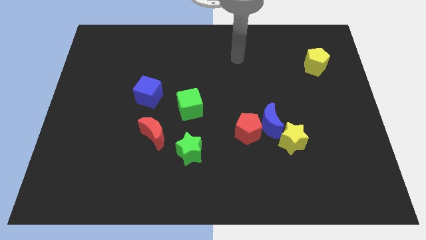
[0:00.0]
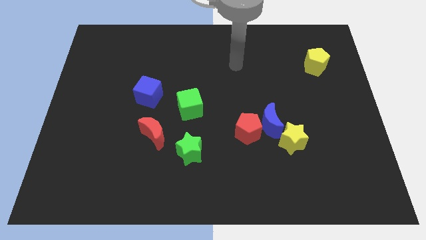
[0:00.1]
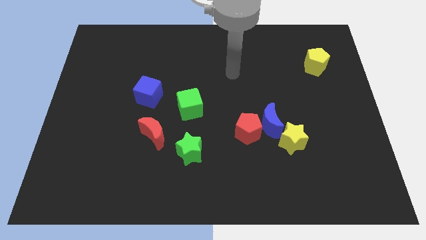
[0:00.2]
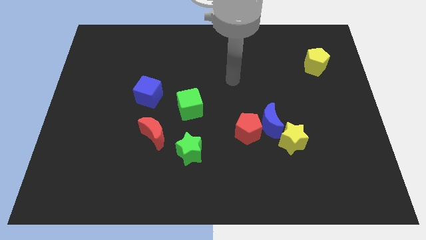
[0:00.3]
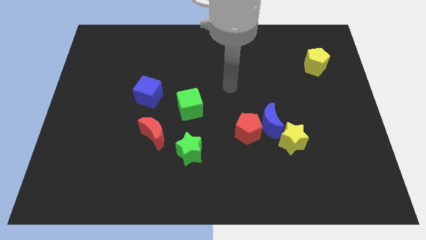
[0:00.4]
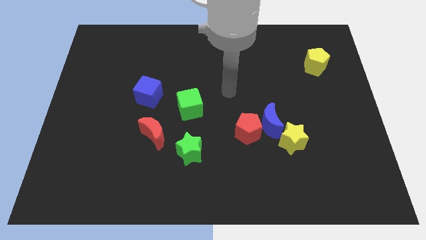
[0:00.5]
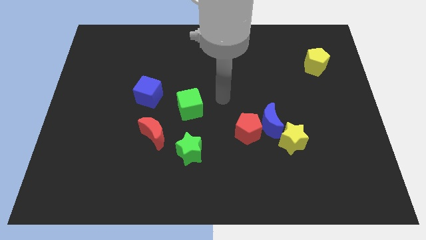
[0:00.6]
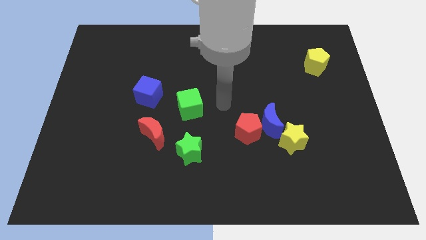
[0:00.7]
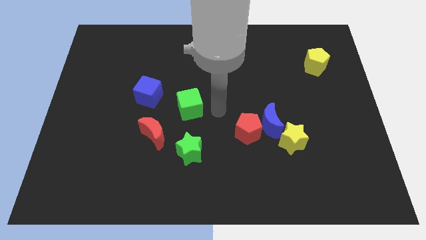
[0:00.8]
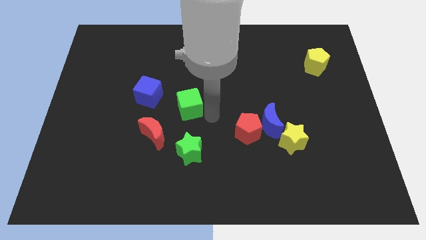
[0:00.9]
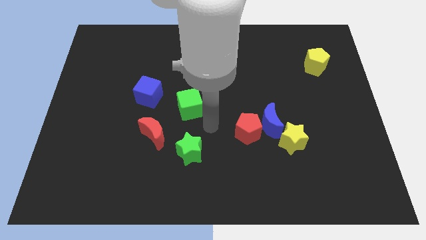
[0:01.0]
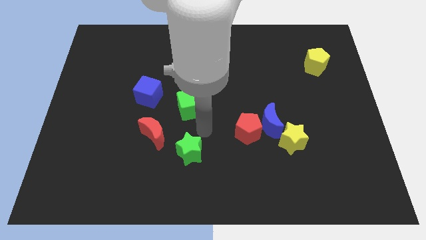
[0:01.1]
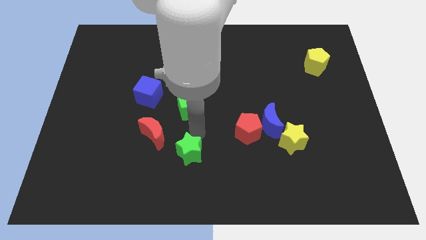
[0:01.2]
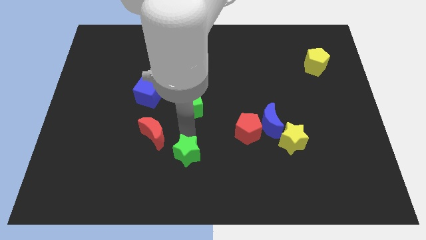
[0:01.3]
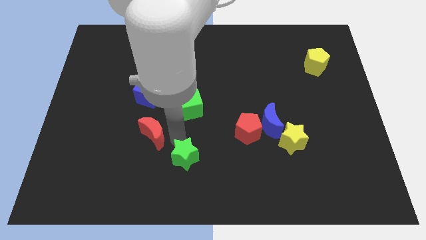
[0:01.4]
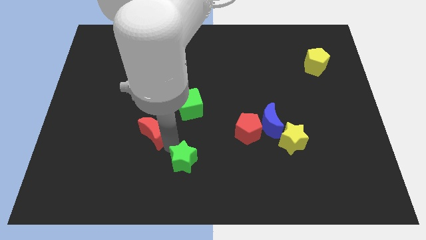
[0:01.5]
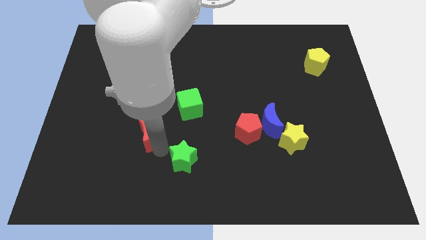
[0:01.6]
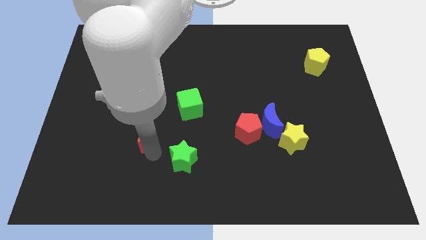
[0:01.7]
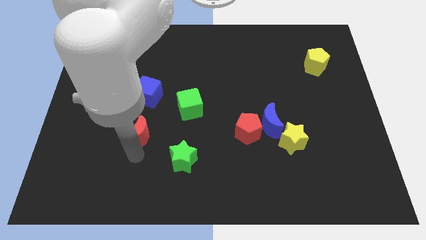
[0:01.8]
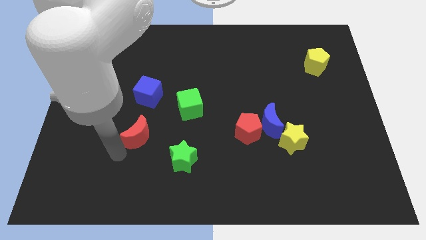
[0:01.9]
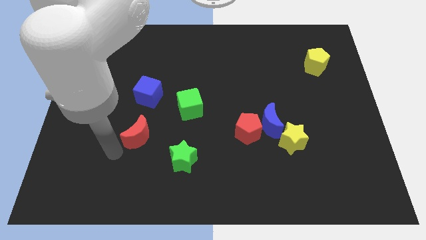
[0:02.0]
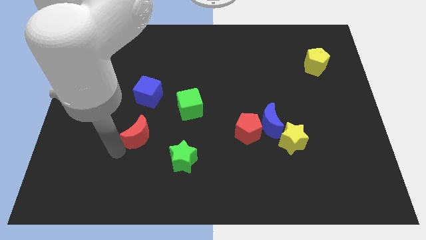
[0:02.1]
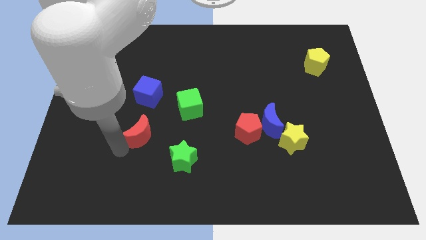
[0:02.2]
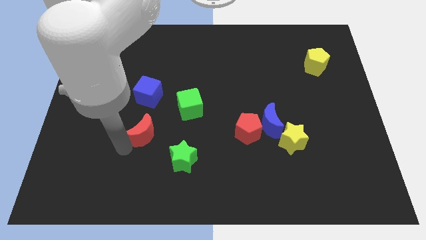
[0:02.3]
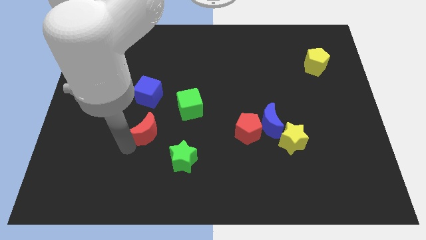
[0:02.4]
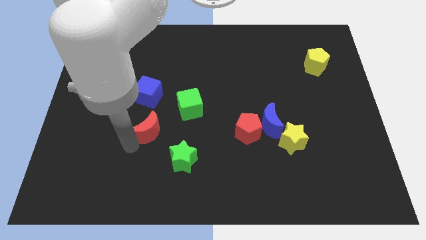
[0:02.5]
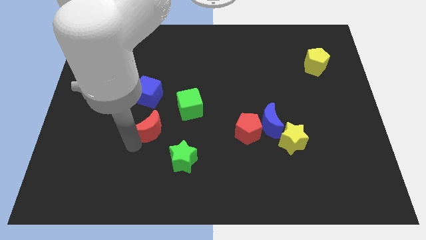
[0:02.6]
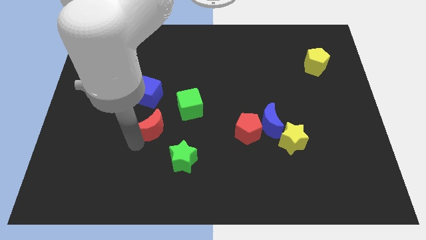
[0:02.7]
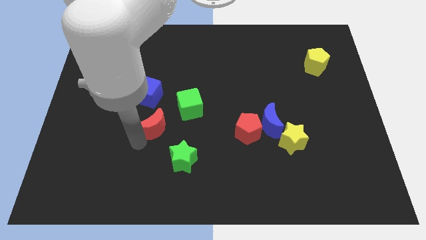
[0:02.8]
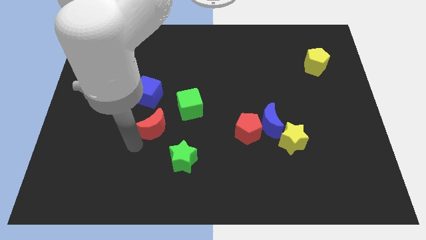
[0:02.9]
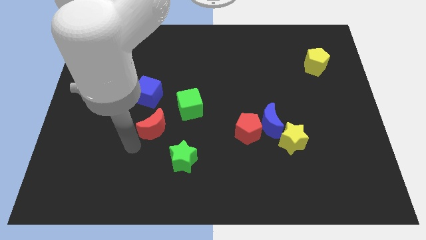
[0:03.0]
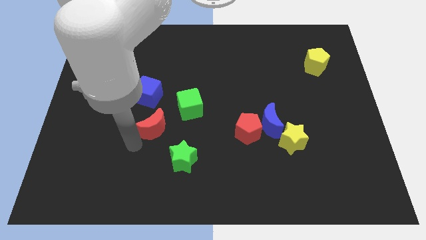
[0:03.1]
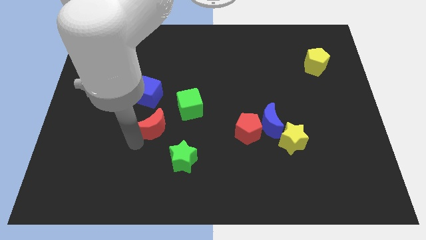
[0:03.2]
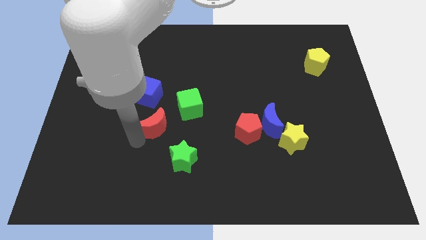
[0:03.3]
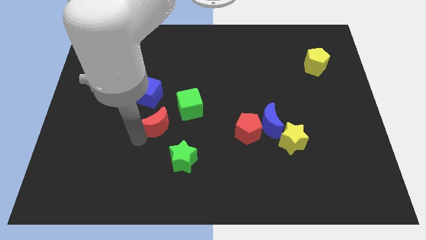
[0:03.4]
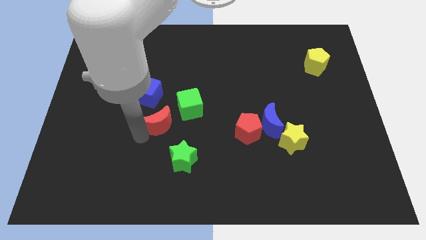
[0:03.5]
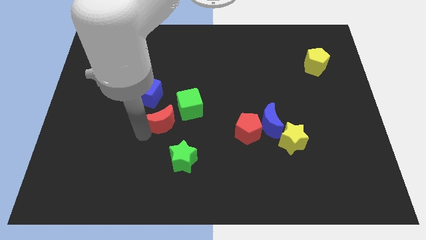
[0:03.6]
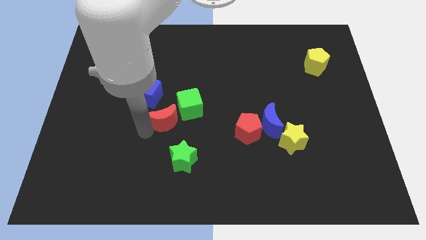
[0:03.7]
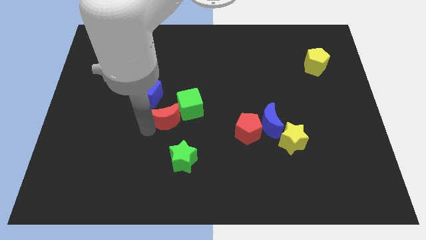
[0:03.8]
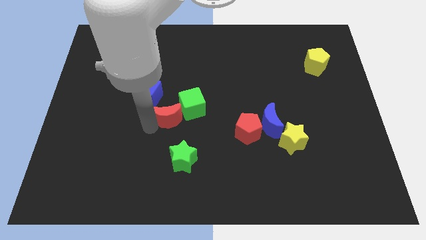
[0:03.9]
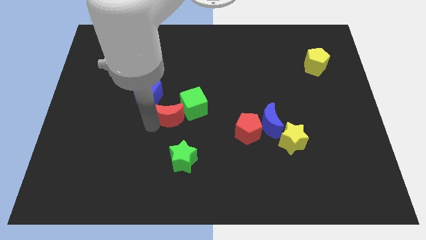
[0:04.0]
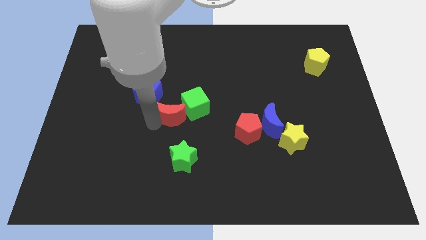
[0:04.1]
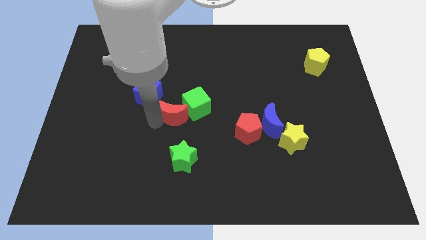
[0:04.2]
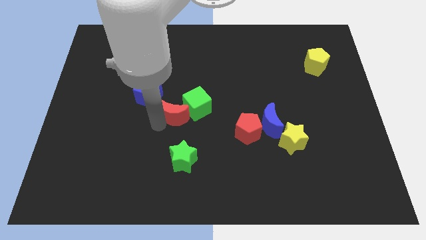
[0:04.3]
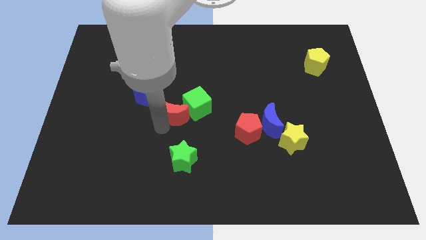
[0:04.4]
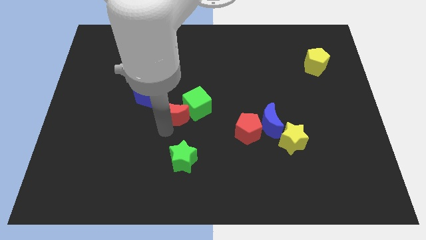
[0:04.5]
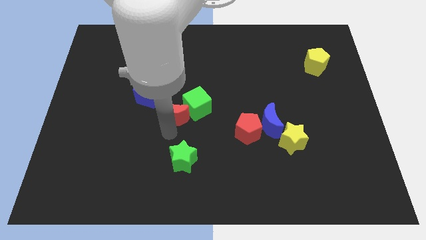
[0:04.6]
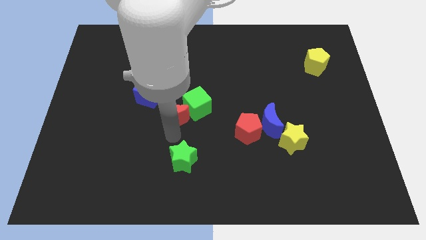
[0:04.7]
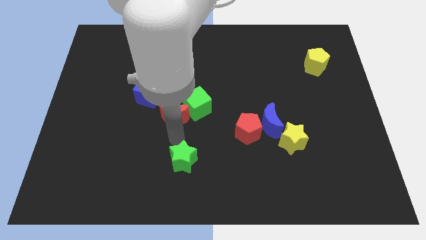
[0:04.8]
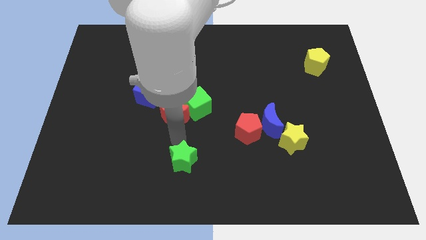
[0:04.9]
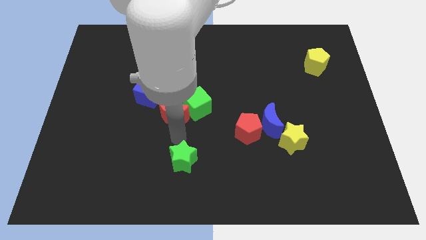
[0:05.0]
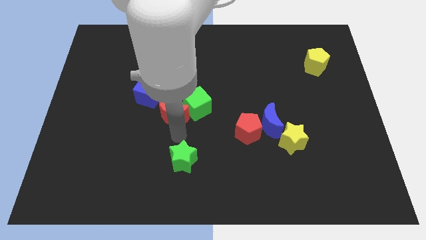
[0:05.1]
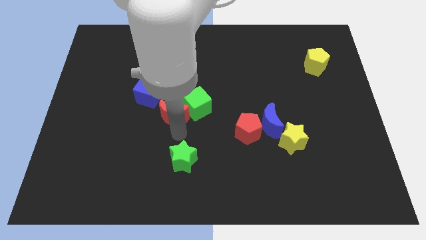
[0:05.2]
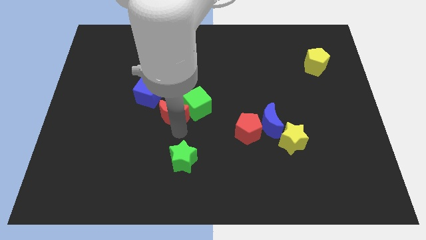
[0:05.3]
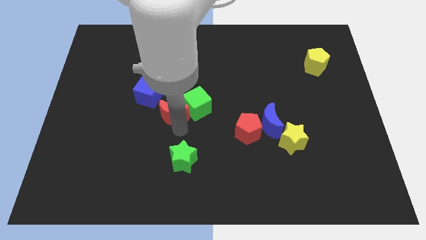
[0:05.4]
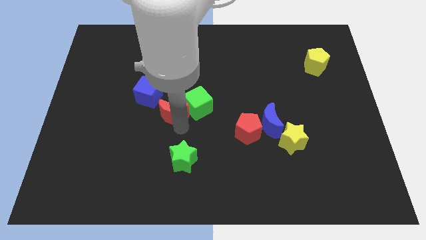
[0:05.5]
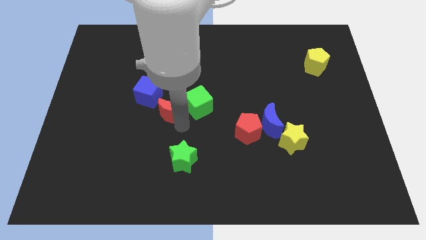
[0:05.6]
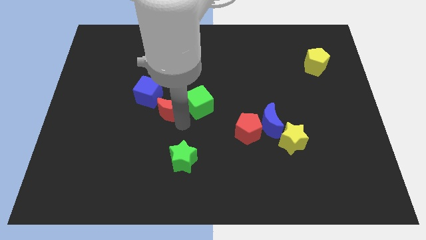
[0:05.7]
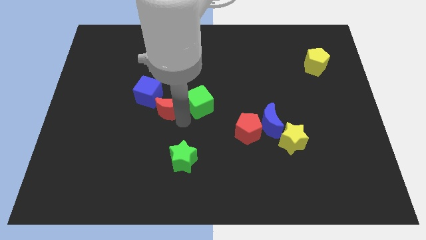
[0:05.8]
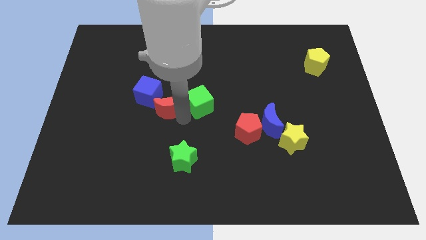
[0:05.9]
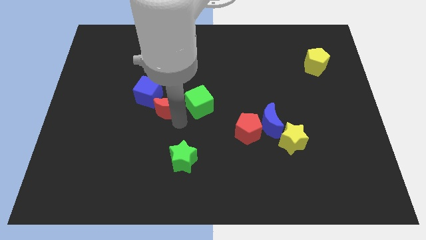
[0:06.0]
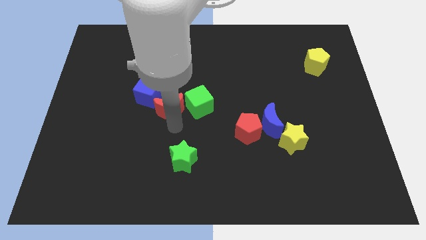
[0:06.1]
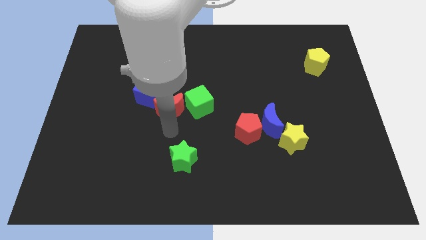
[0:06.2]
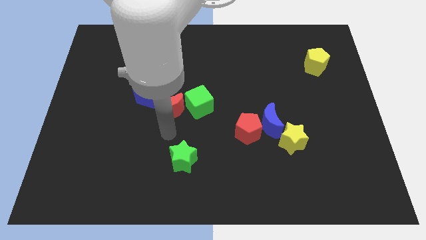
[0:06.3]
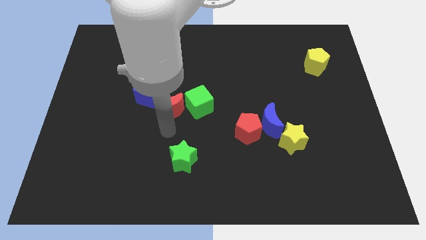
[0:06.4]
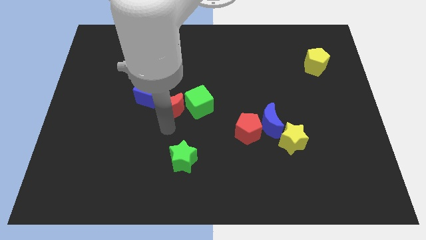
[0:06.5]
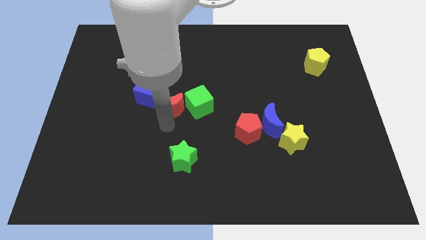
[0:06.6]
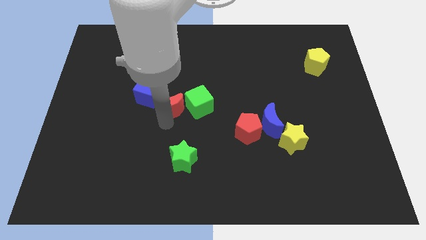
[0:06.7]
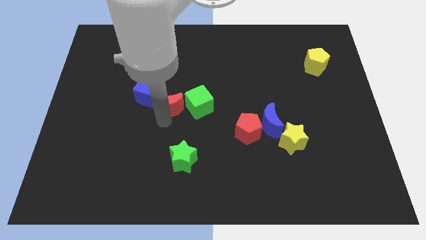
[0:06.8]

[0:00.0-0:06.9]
slightly push the red moon up

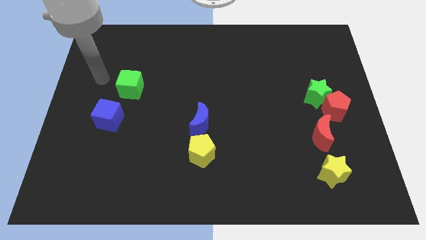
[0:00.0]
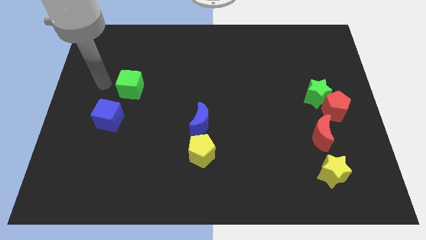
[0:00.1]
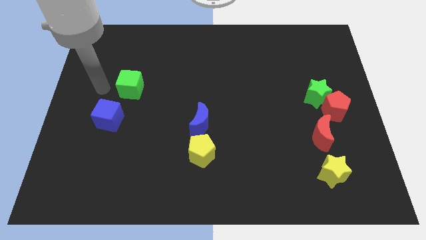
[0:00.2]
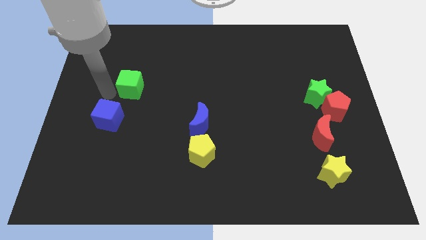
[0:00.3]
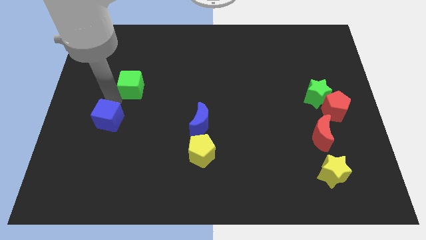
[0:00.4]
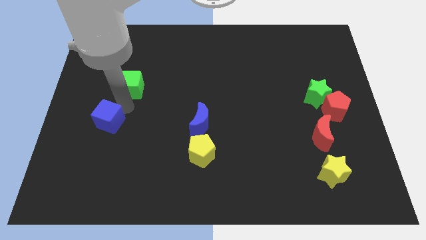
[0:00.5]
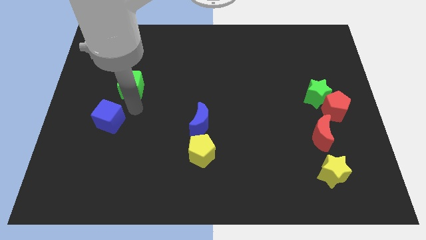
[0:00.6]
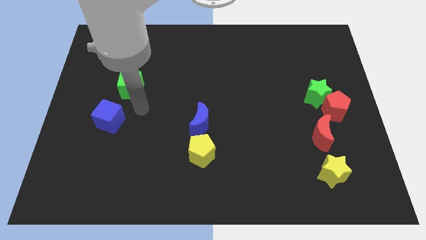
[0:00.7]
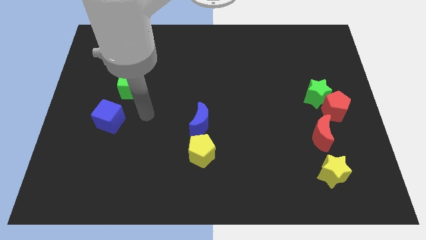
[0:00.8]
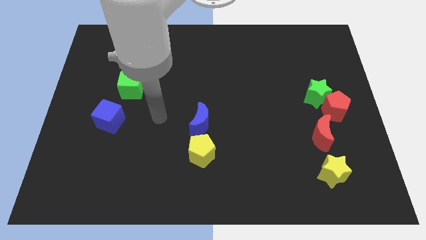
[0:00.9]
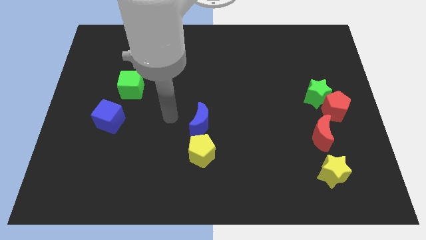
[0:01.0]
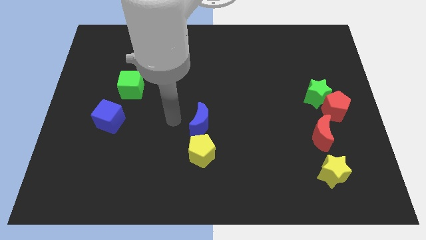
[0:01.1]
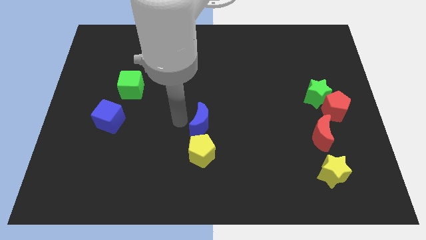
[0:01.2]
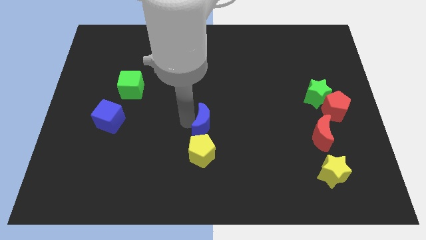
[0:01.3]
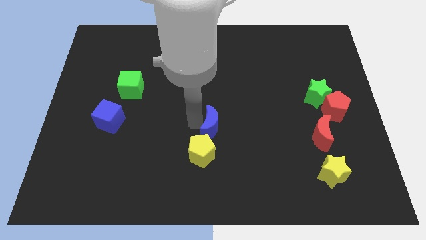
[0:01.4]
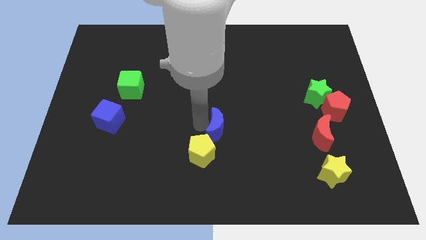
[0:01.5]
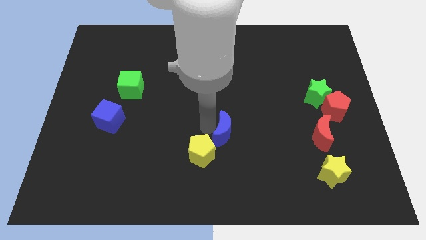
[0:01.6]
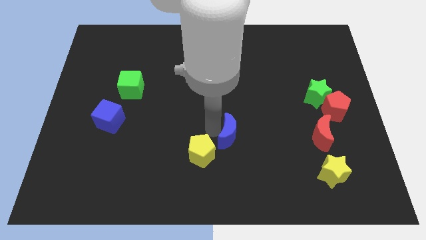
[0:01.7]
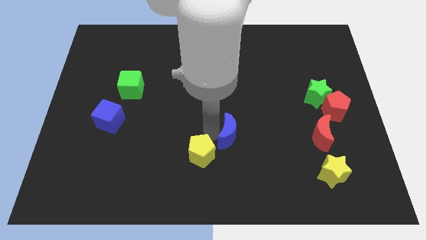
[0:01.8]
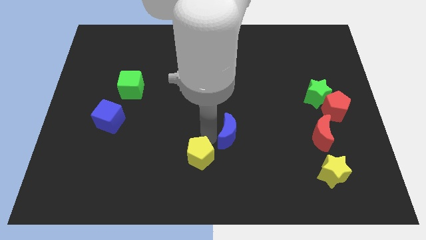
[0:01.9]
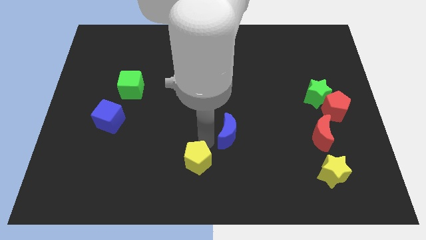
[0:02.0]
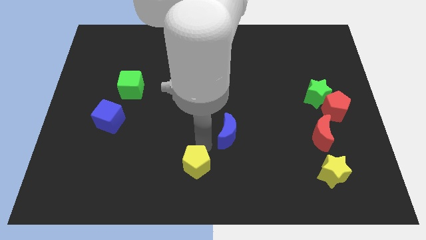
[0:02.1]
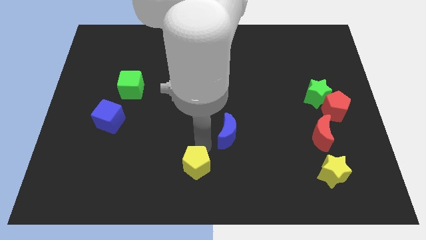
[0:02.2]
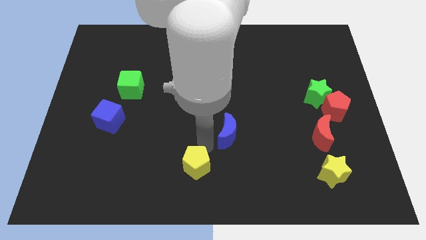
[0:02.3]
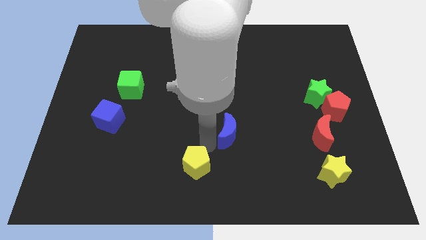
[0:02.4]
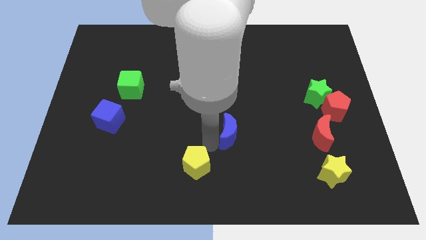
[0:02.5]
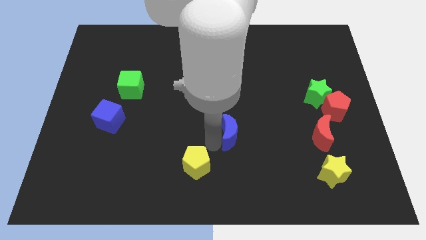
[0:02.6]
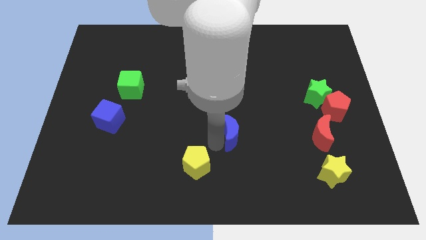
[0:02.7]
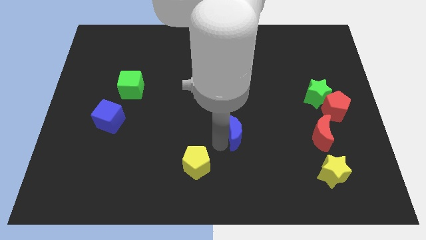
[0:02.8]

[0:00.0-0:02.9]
push the blue moon a little right
